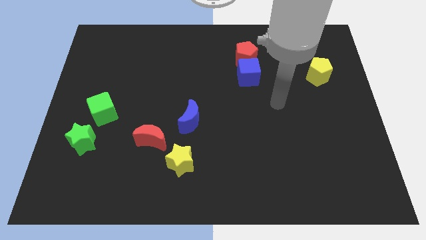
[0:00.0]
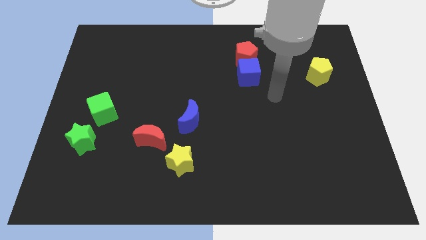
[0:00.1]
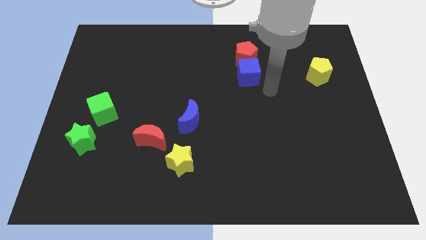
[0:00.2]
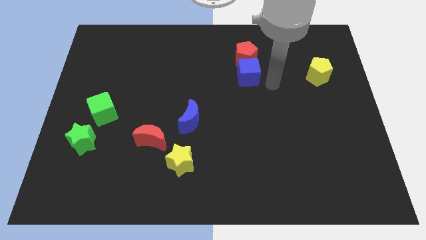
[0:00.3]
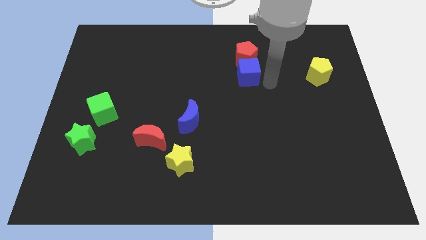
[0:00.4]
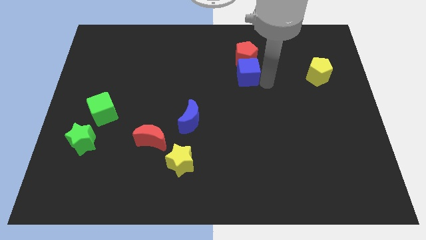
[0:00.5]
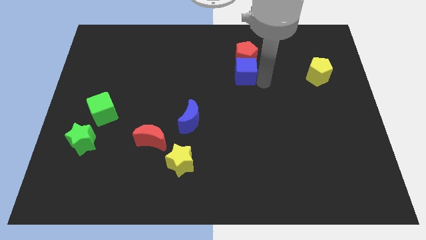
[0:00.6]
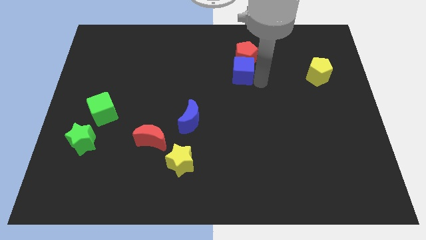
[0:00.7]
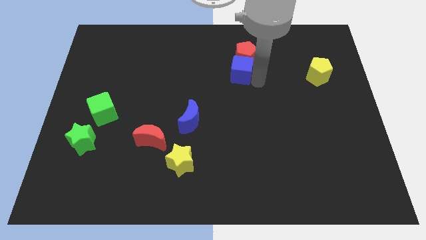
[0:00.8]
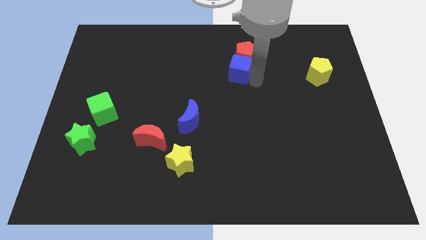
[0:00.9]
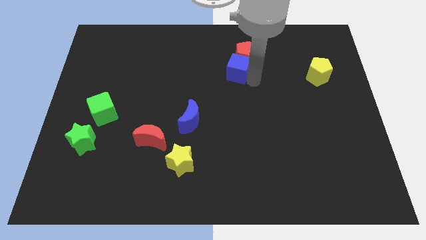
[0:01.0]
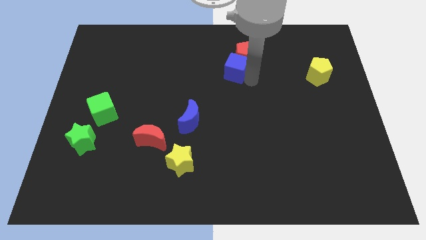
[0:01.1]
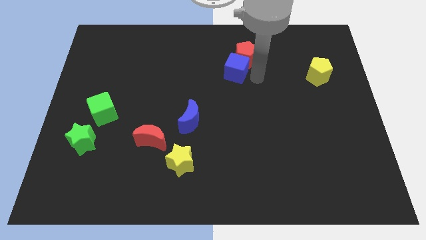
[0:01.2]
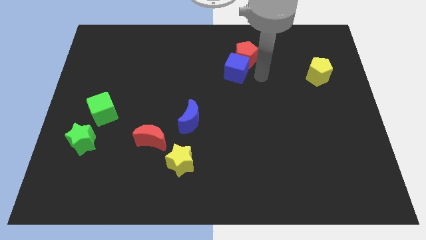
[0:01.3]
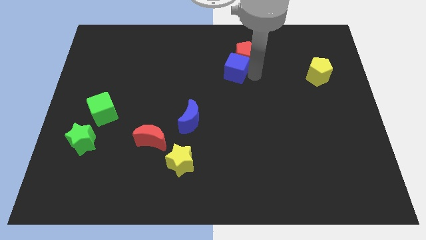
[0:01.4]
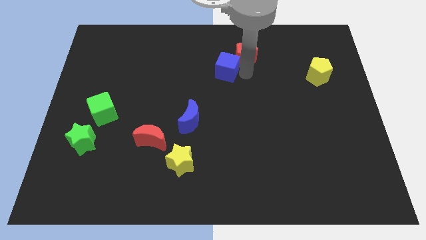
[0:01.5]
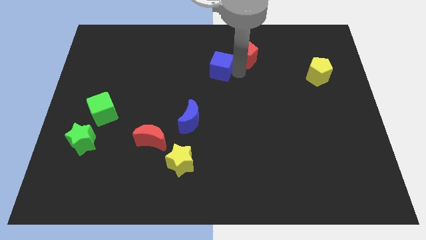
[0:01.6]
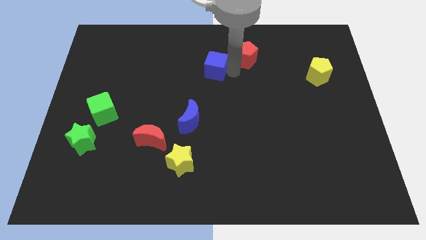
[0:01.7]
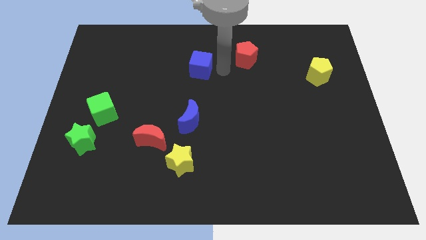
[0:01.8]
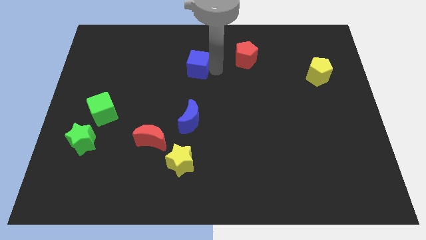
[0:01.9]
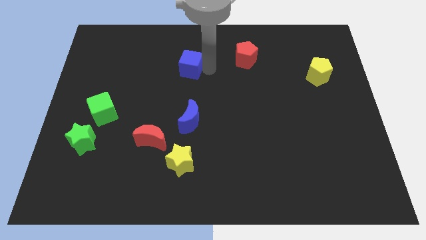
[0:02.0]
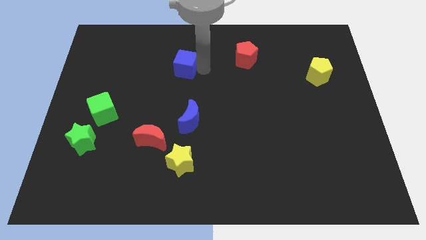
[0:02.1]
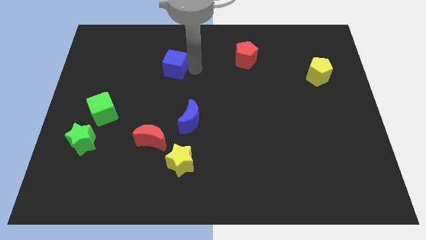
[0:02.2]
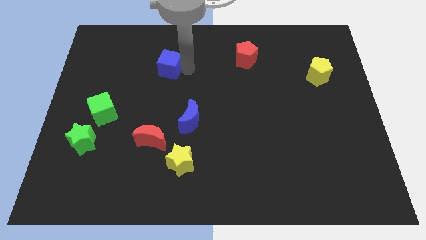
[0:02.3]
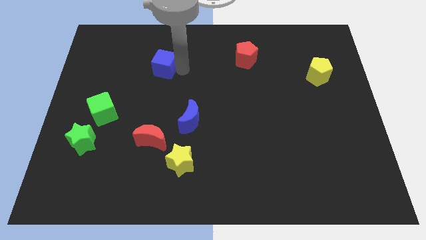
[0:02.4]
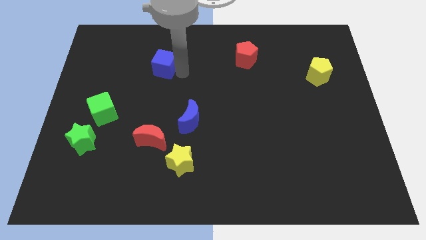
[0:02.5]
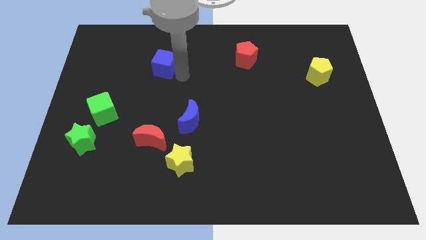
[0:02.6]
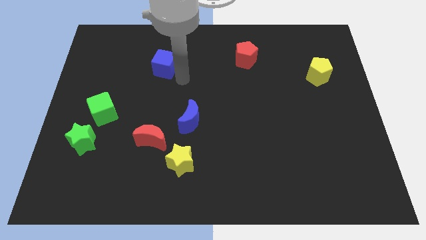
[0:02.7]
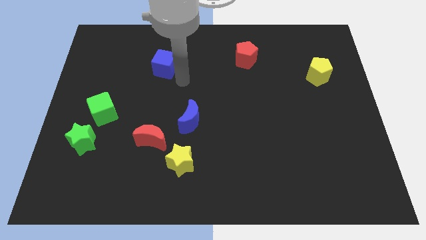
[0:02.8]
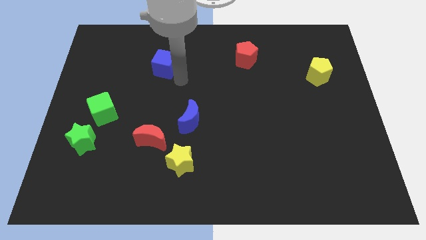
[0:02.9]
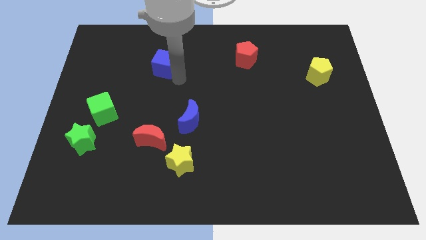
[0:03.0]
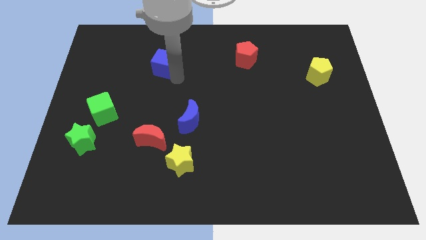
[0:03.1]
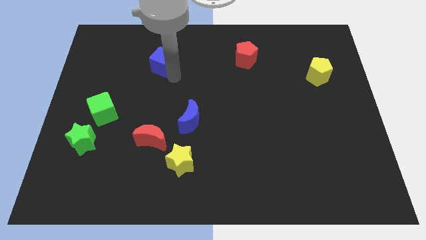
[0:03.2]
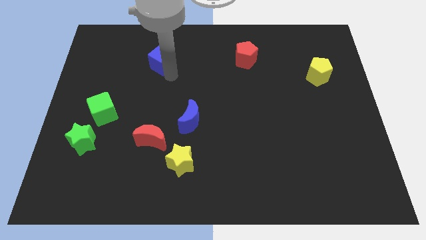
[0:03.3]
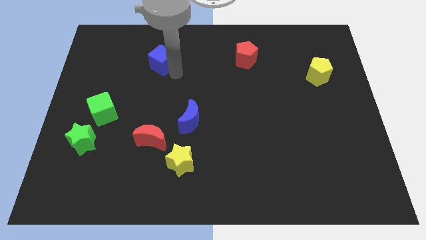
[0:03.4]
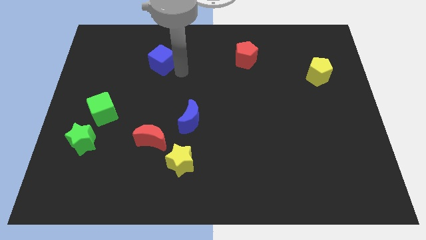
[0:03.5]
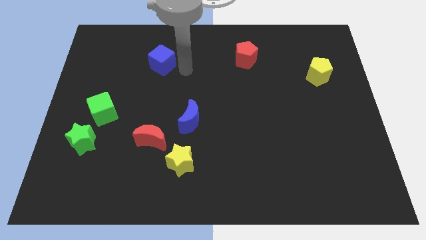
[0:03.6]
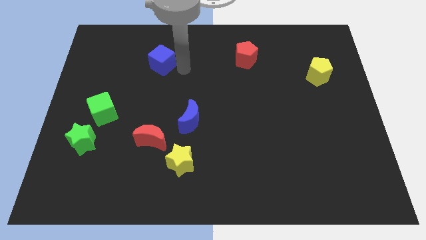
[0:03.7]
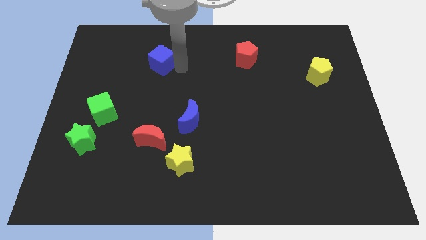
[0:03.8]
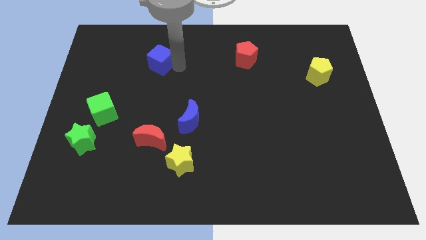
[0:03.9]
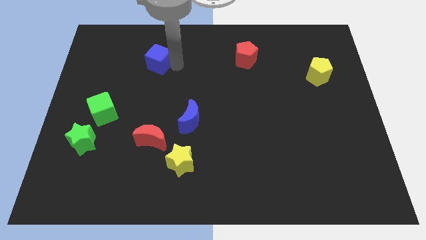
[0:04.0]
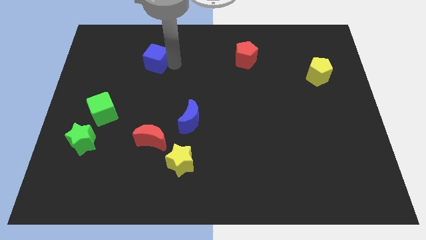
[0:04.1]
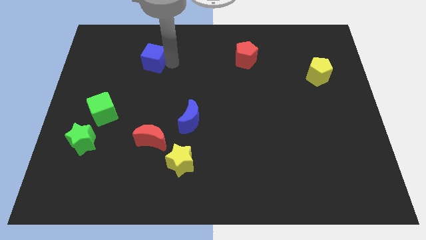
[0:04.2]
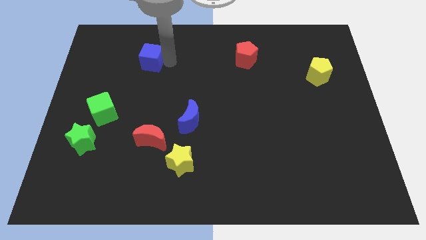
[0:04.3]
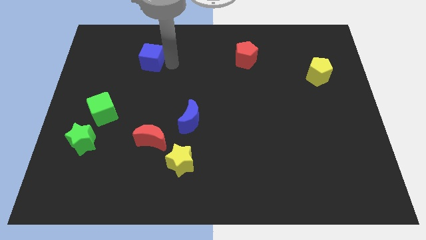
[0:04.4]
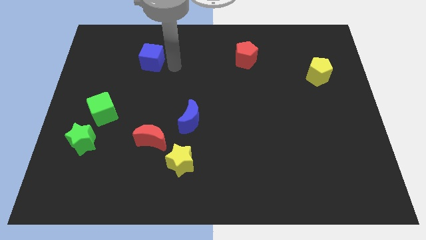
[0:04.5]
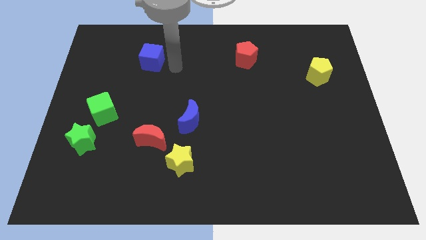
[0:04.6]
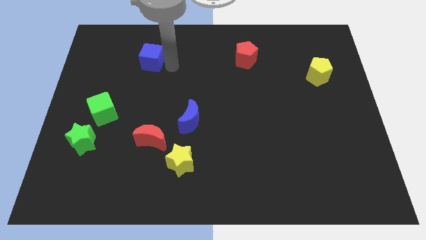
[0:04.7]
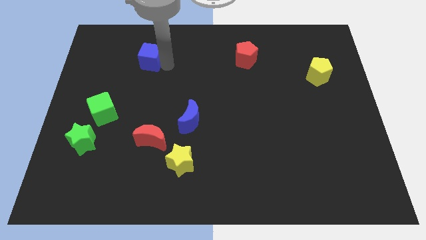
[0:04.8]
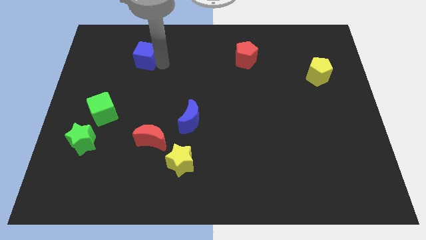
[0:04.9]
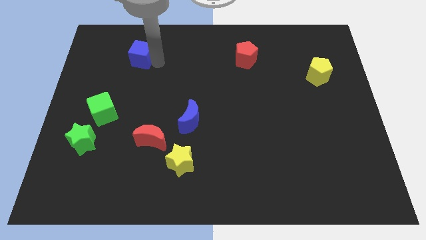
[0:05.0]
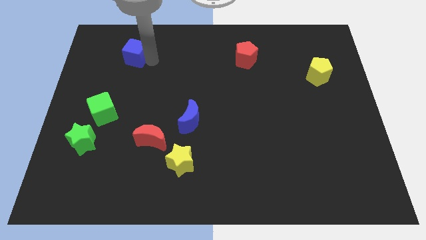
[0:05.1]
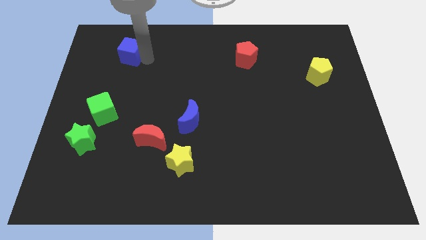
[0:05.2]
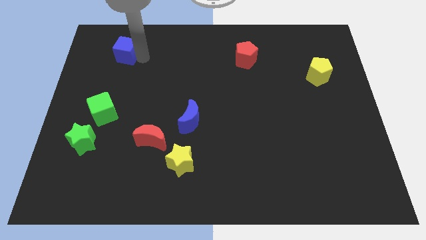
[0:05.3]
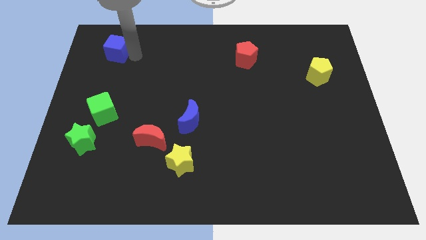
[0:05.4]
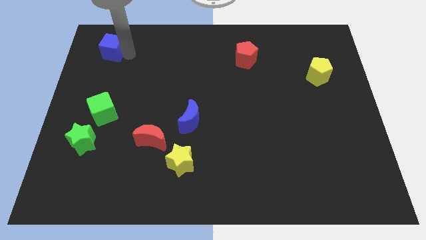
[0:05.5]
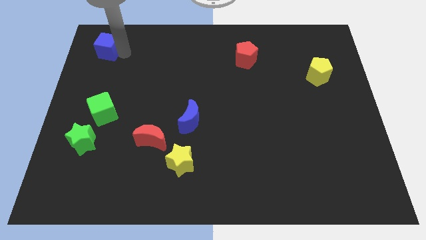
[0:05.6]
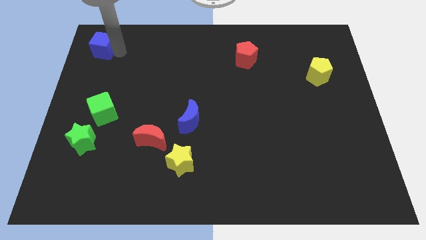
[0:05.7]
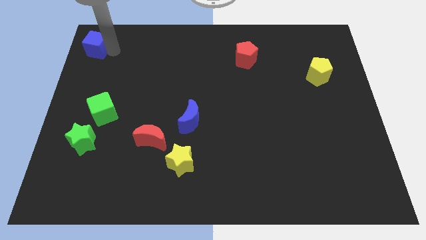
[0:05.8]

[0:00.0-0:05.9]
put the blue cube to the top left
